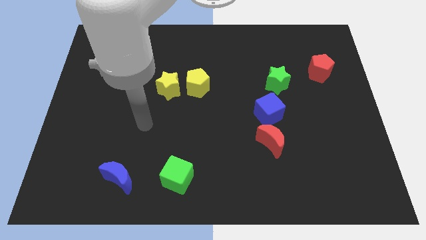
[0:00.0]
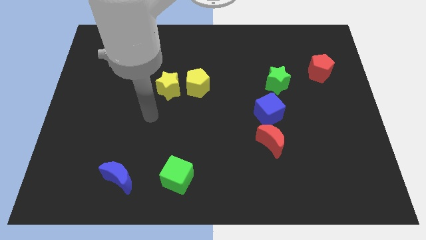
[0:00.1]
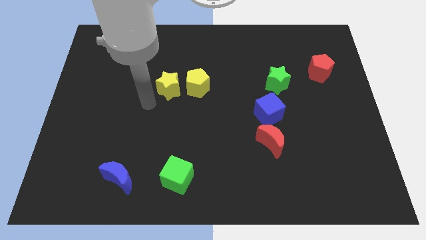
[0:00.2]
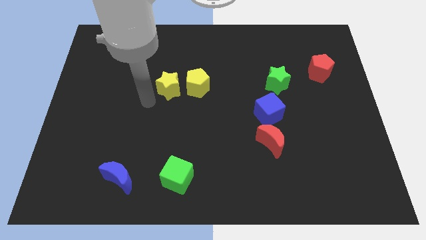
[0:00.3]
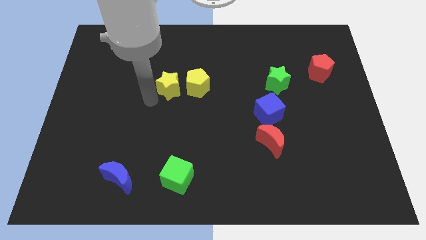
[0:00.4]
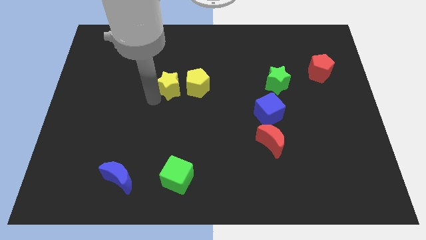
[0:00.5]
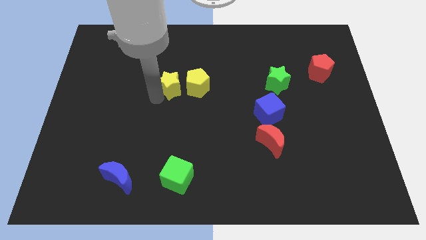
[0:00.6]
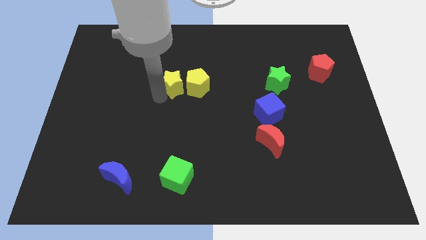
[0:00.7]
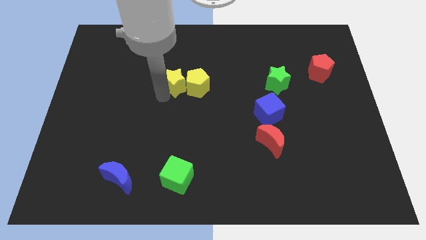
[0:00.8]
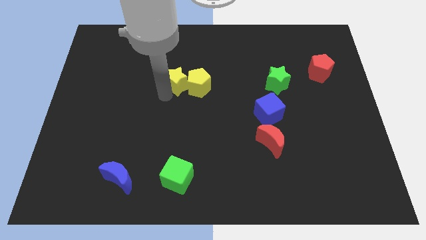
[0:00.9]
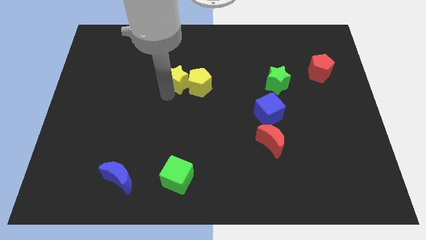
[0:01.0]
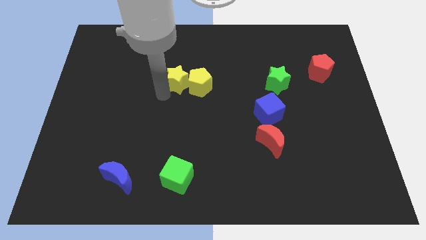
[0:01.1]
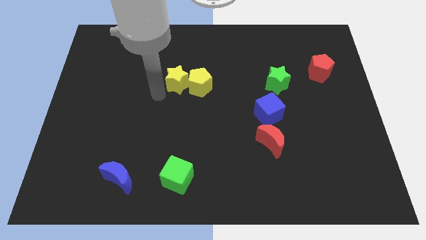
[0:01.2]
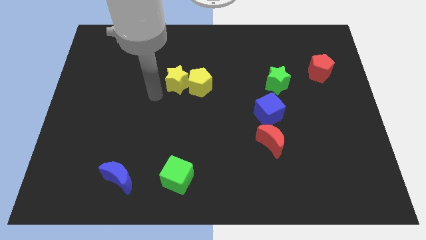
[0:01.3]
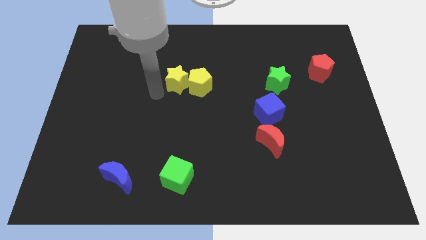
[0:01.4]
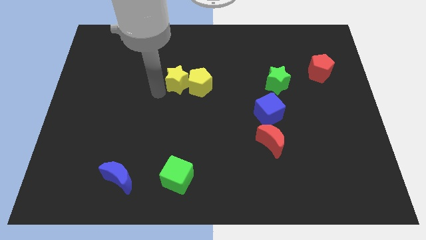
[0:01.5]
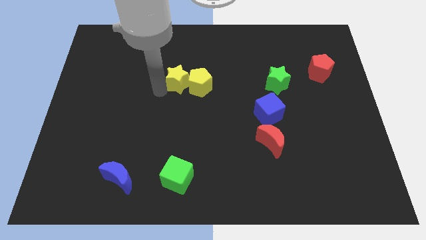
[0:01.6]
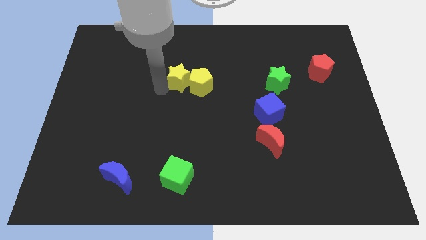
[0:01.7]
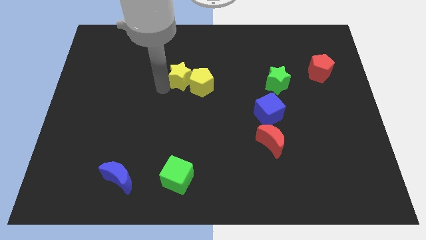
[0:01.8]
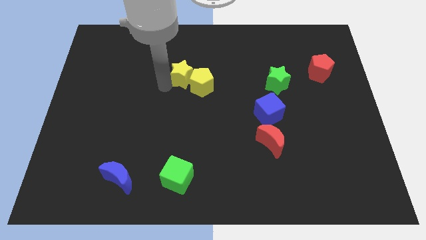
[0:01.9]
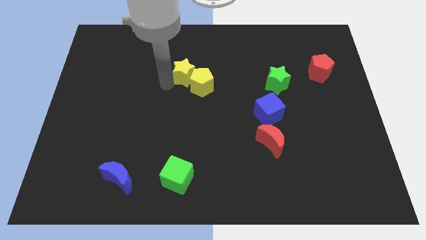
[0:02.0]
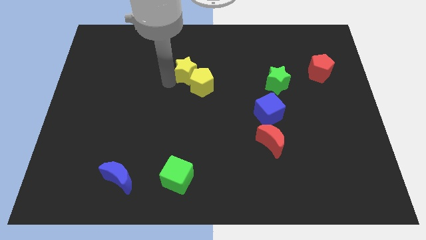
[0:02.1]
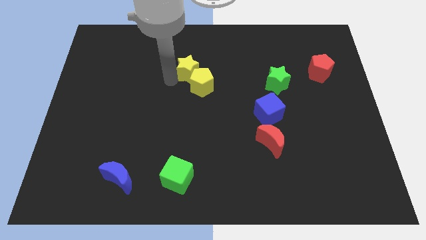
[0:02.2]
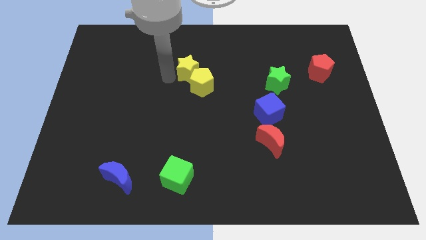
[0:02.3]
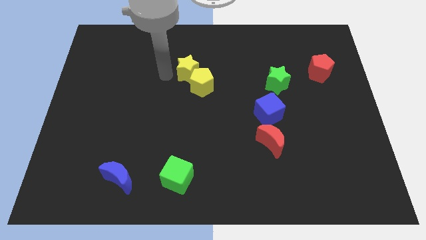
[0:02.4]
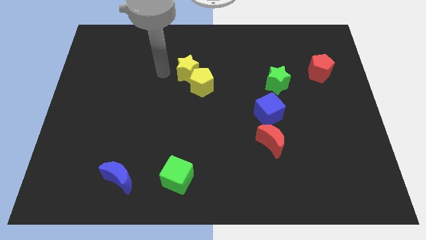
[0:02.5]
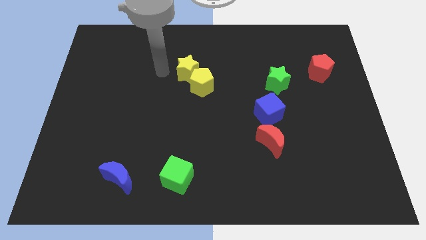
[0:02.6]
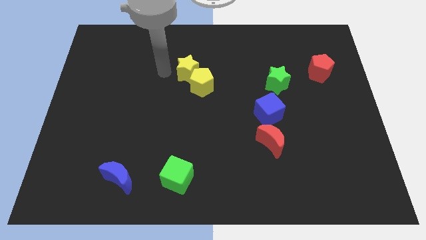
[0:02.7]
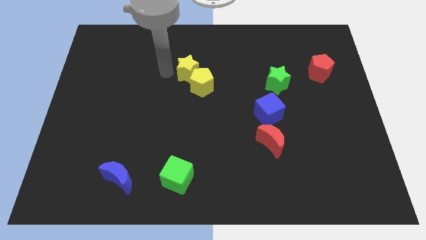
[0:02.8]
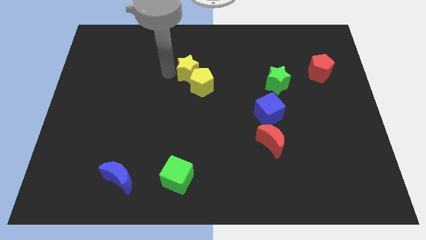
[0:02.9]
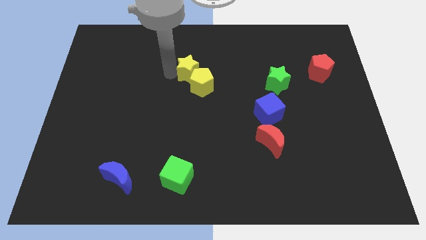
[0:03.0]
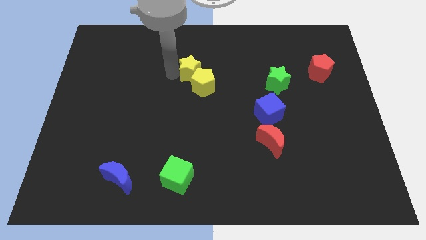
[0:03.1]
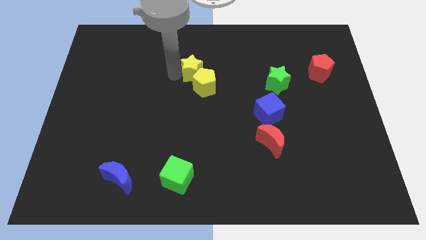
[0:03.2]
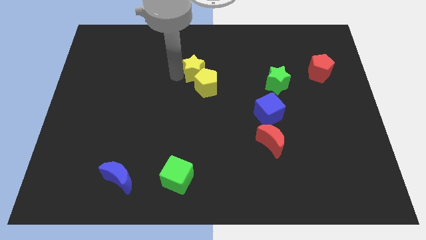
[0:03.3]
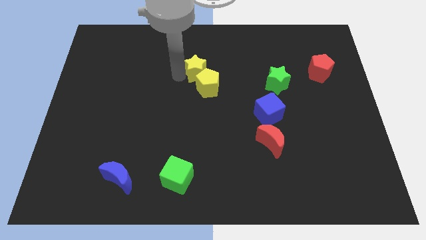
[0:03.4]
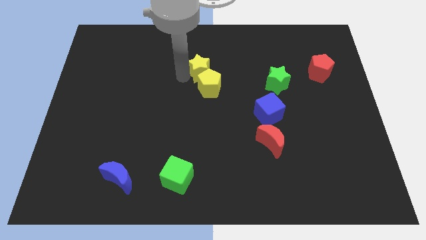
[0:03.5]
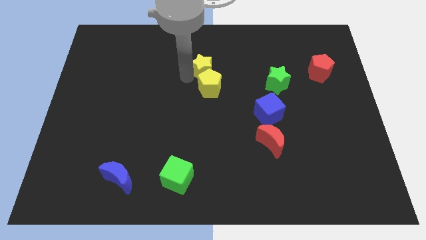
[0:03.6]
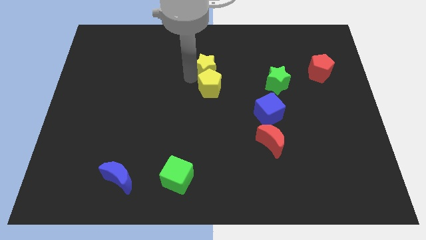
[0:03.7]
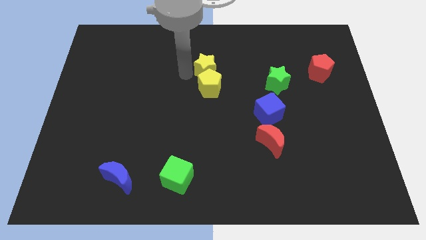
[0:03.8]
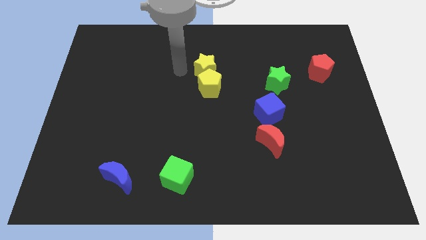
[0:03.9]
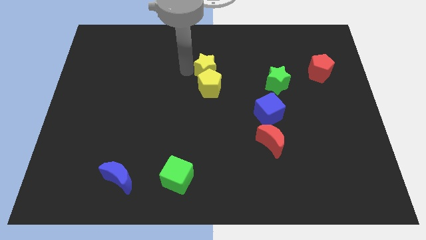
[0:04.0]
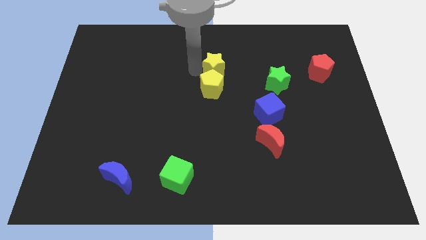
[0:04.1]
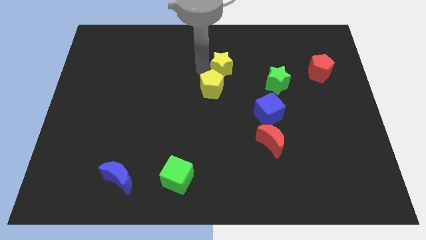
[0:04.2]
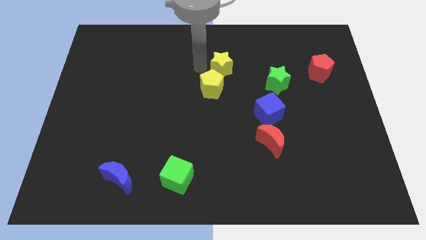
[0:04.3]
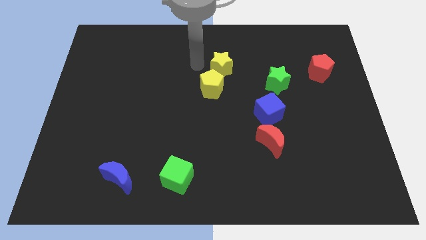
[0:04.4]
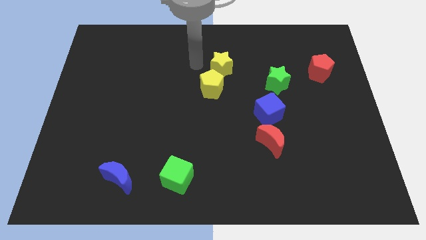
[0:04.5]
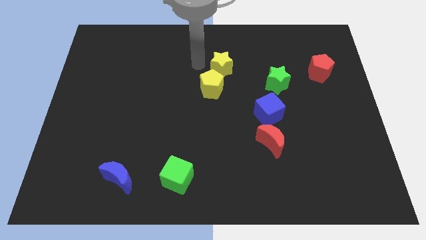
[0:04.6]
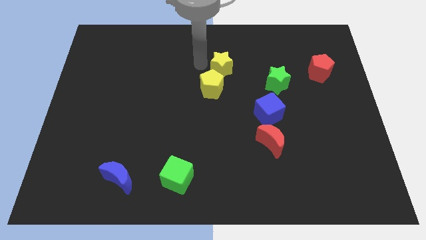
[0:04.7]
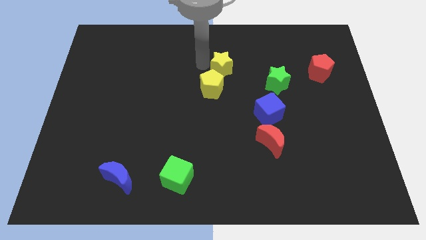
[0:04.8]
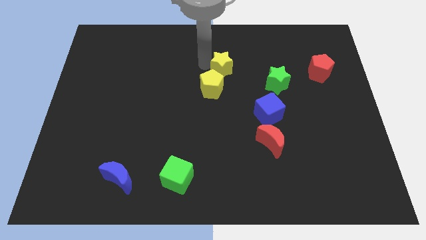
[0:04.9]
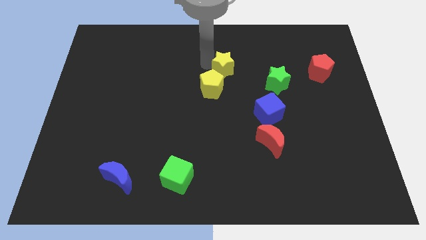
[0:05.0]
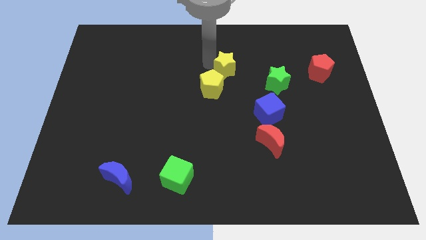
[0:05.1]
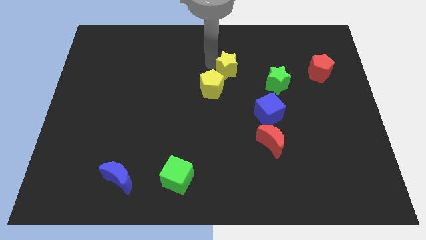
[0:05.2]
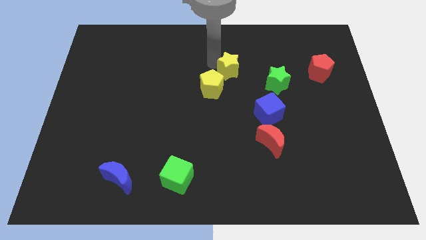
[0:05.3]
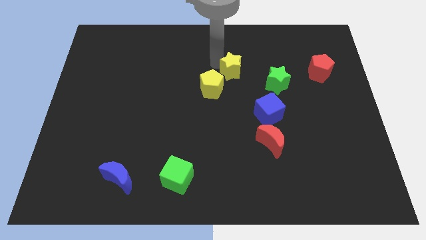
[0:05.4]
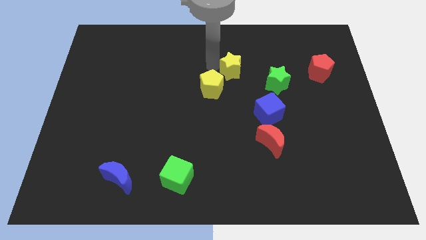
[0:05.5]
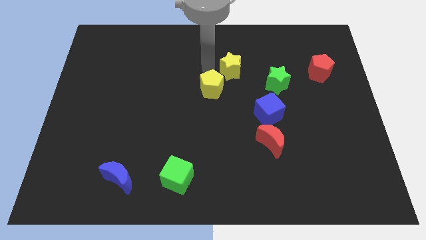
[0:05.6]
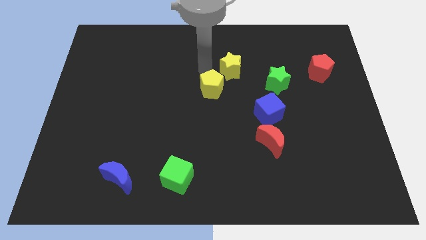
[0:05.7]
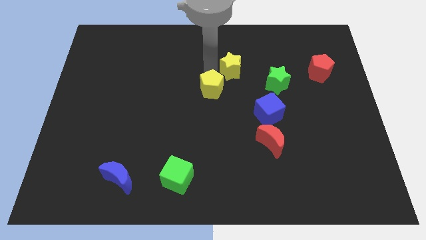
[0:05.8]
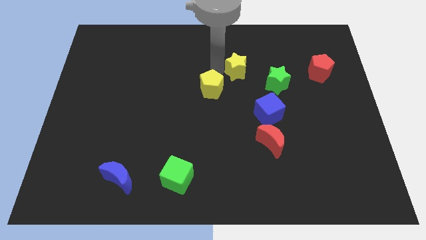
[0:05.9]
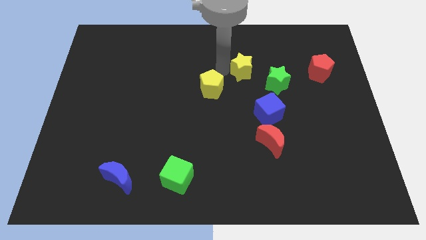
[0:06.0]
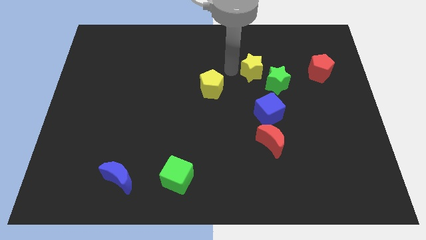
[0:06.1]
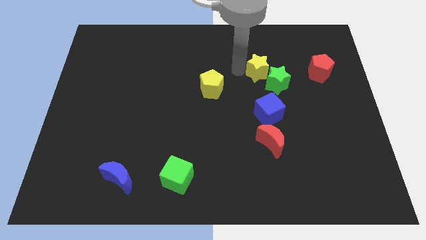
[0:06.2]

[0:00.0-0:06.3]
put the yellow star to the left side of the red pentagon

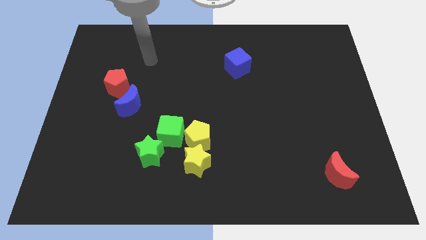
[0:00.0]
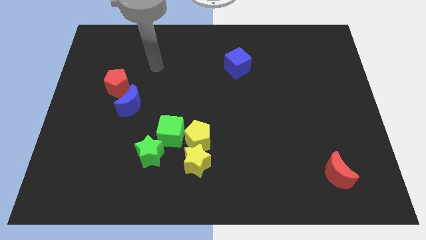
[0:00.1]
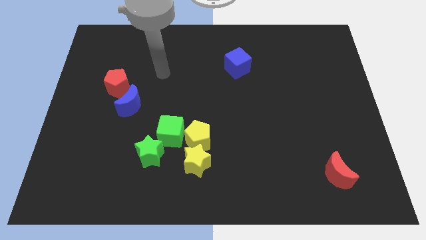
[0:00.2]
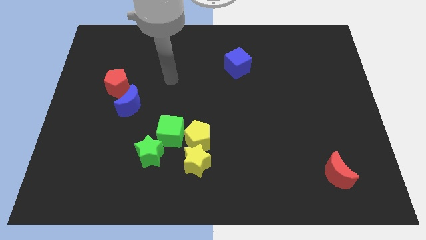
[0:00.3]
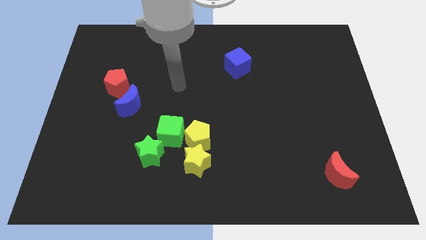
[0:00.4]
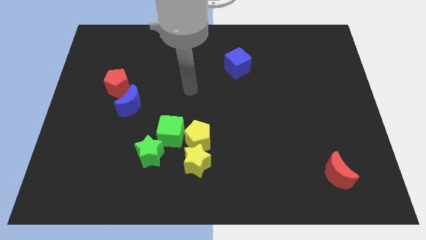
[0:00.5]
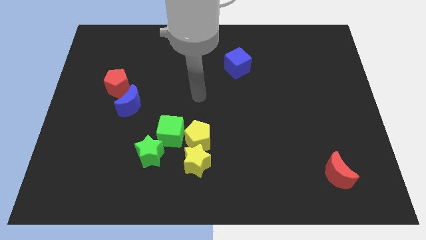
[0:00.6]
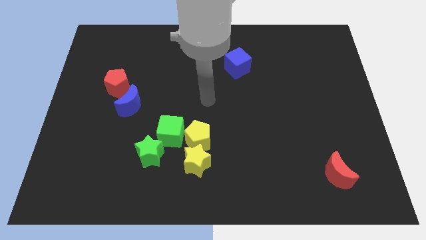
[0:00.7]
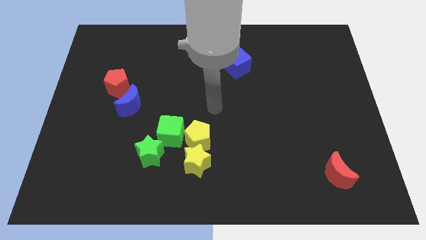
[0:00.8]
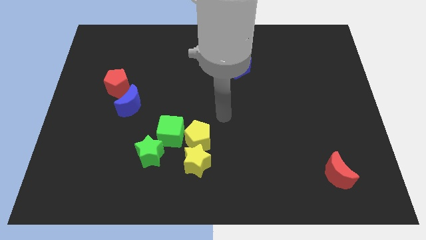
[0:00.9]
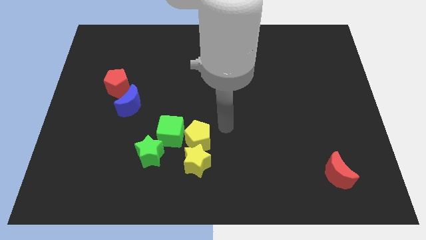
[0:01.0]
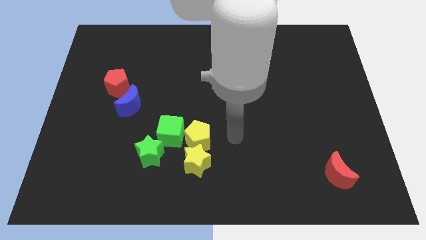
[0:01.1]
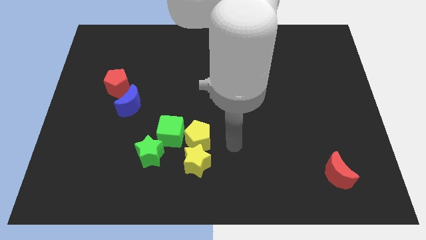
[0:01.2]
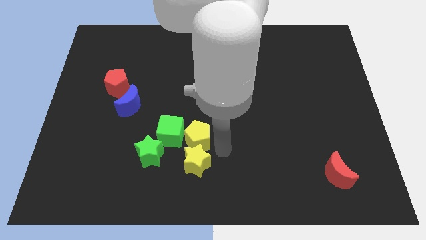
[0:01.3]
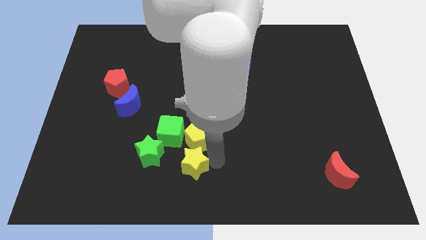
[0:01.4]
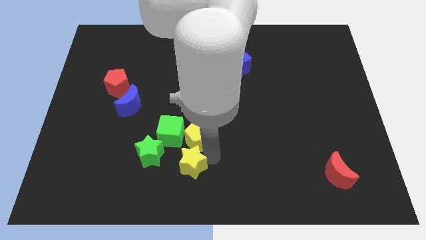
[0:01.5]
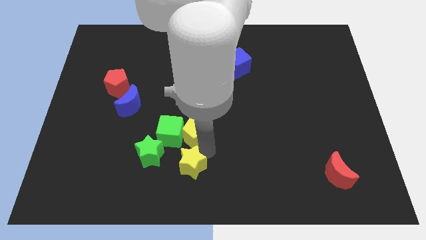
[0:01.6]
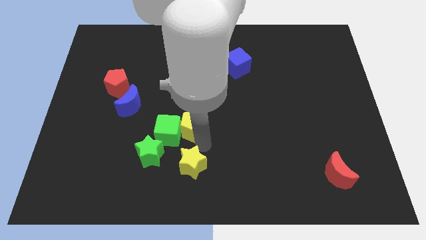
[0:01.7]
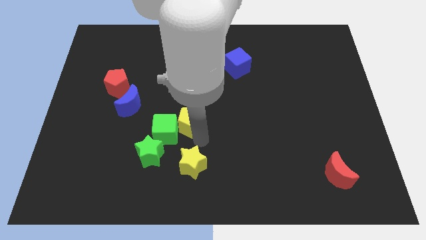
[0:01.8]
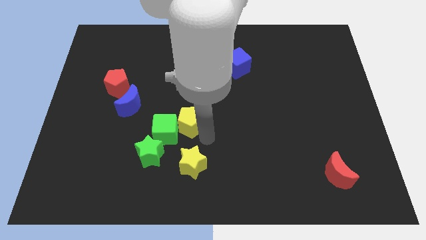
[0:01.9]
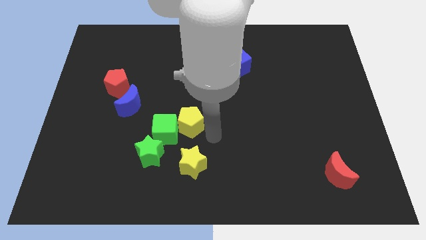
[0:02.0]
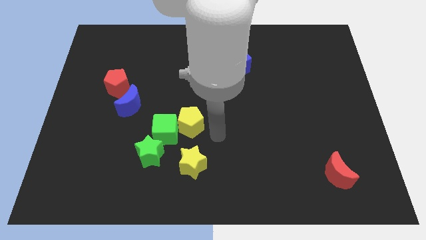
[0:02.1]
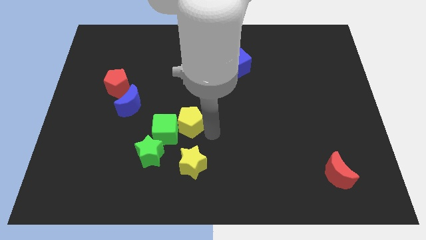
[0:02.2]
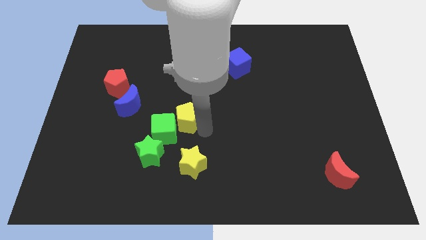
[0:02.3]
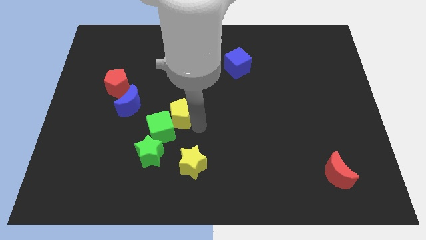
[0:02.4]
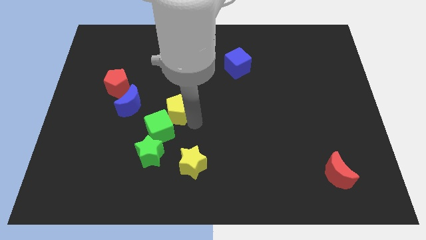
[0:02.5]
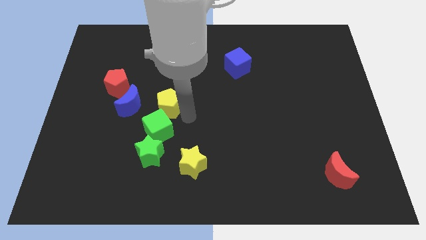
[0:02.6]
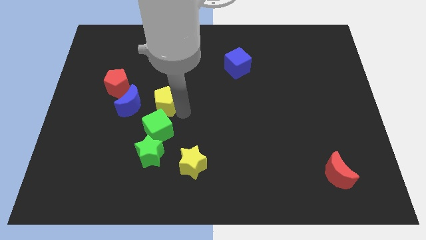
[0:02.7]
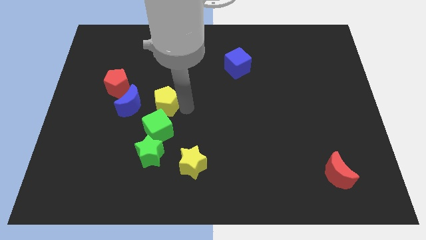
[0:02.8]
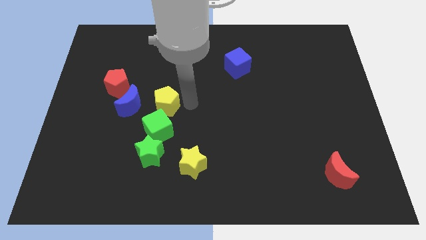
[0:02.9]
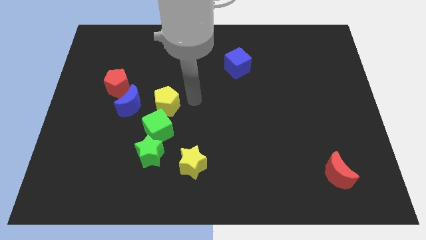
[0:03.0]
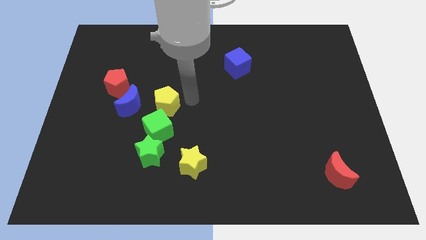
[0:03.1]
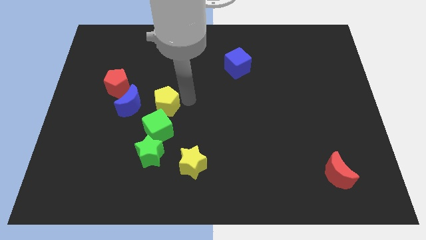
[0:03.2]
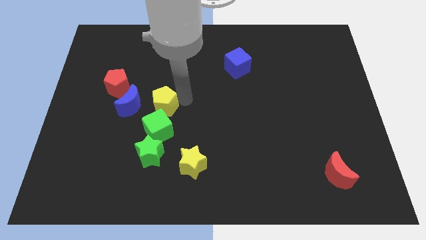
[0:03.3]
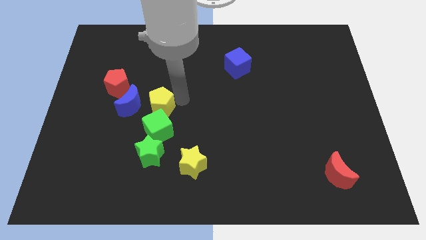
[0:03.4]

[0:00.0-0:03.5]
put the yellow pentagon diagonally up and to the left of the green cube
